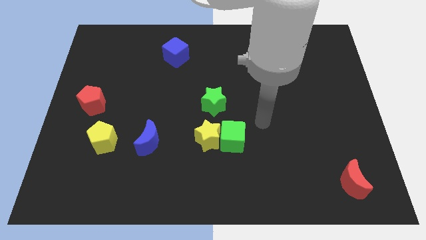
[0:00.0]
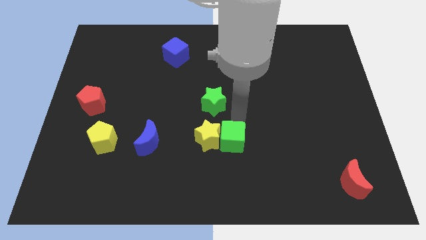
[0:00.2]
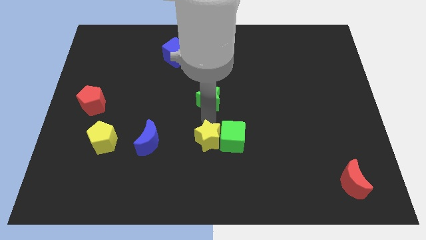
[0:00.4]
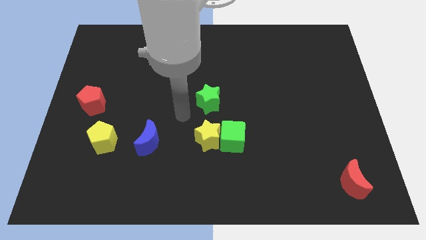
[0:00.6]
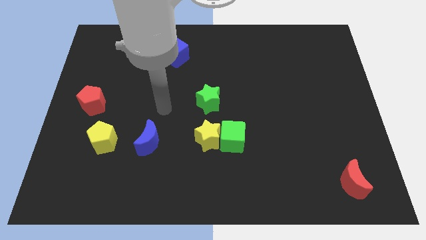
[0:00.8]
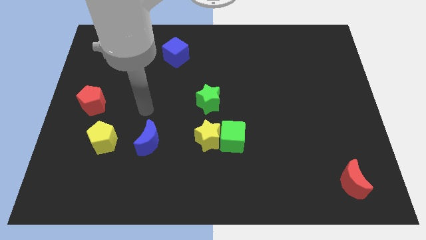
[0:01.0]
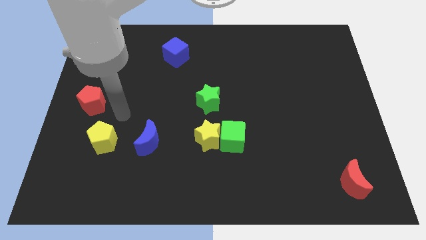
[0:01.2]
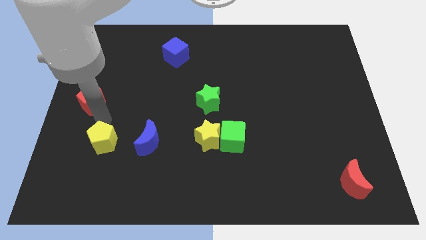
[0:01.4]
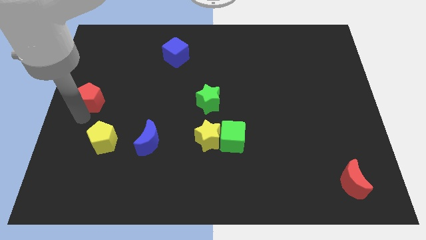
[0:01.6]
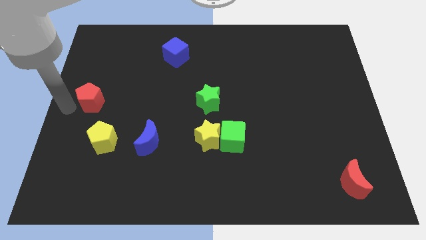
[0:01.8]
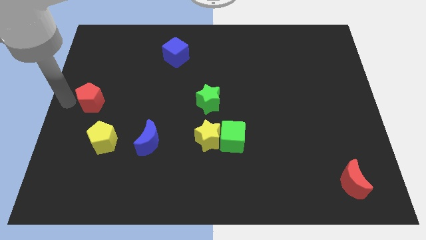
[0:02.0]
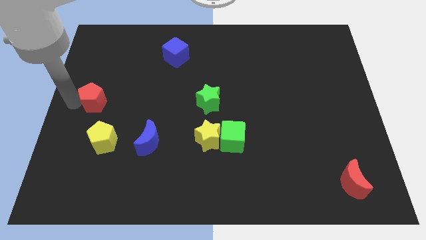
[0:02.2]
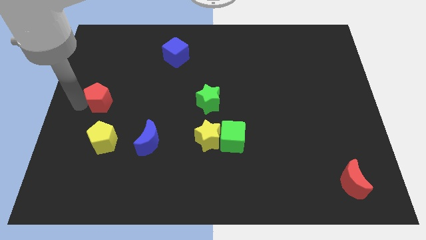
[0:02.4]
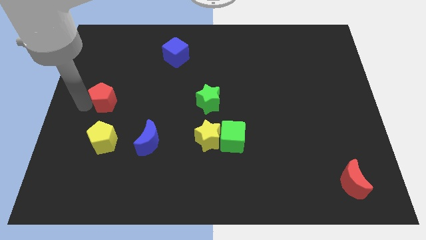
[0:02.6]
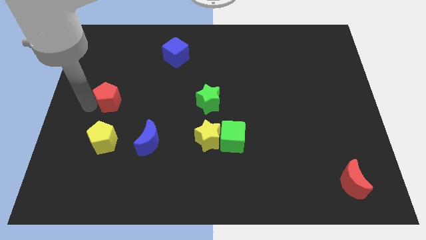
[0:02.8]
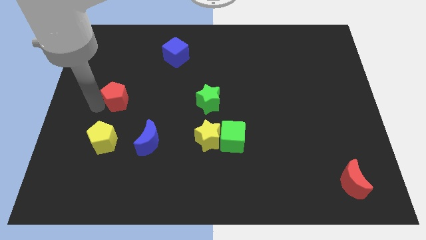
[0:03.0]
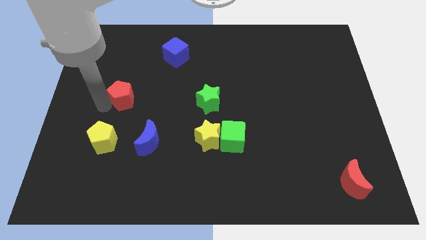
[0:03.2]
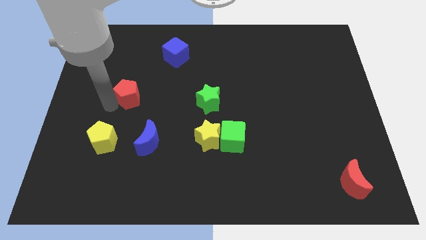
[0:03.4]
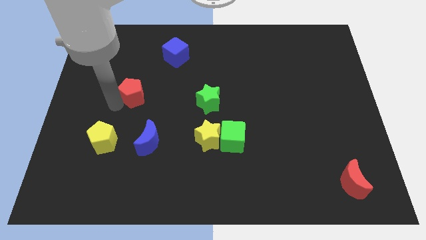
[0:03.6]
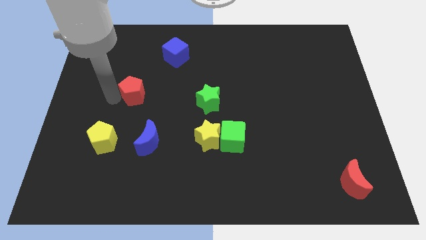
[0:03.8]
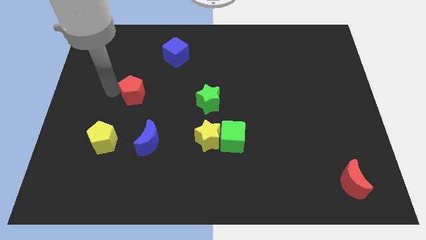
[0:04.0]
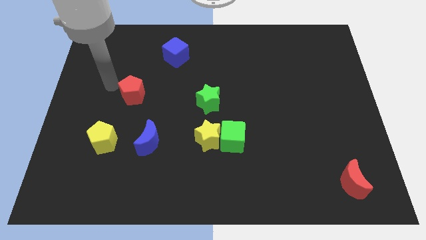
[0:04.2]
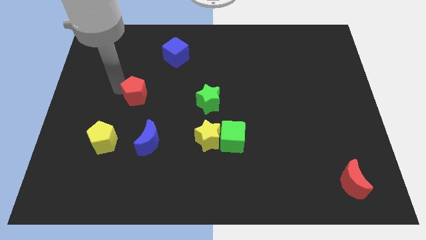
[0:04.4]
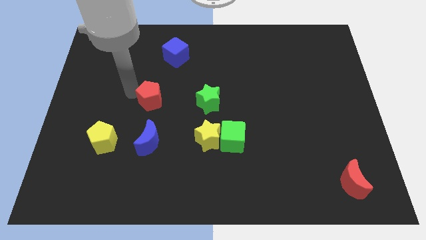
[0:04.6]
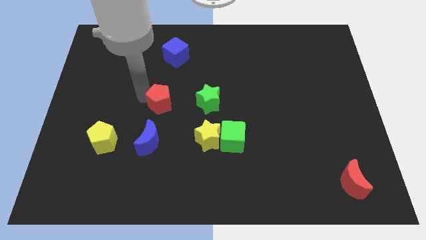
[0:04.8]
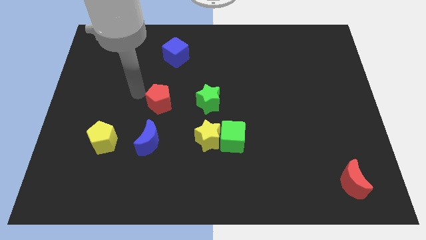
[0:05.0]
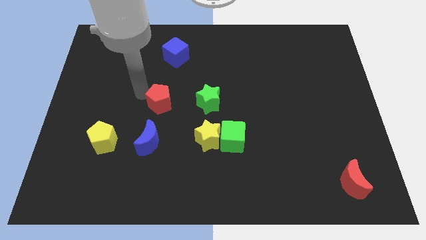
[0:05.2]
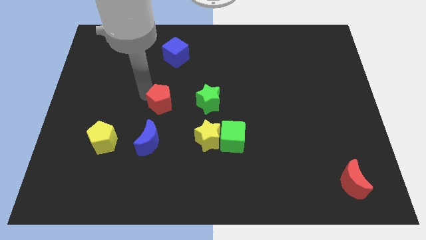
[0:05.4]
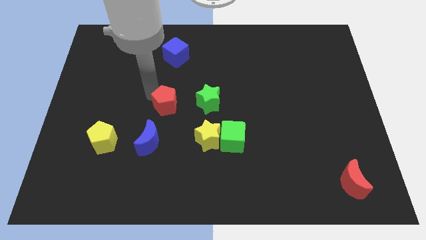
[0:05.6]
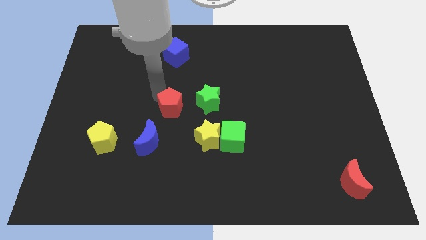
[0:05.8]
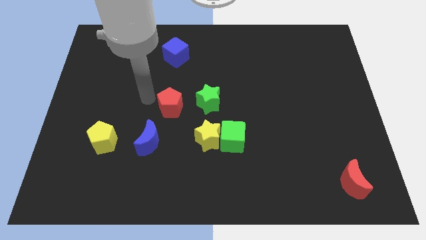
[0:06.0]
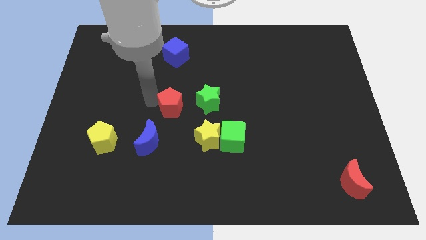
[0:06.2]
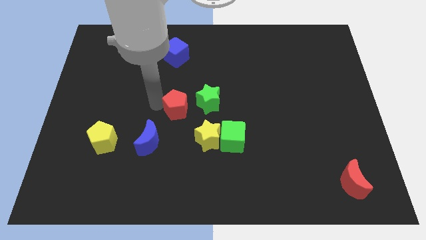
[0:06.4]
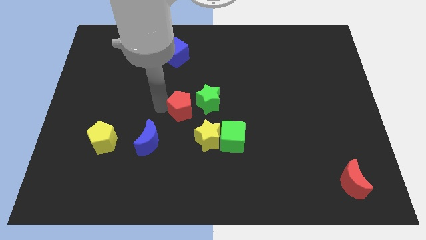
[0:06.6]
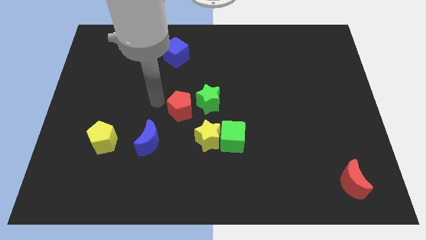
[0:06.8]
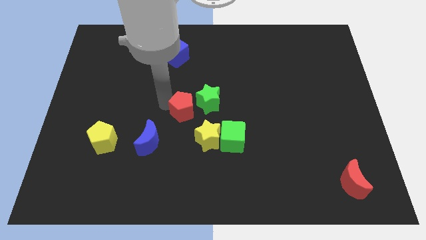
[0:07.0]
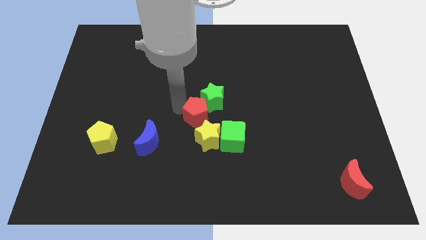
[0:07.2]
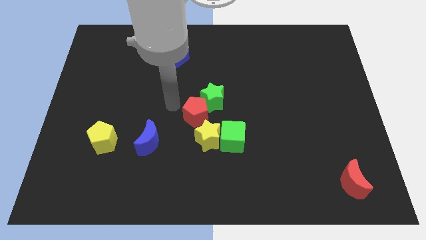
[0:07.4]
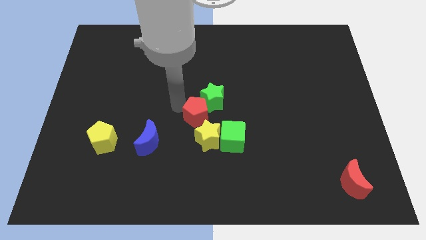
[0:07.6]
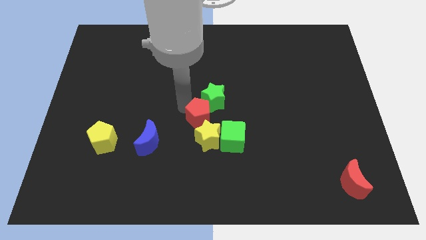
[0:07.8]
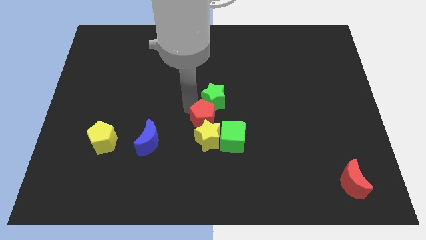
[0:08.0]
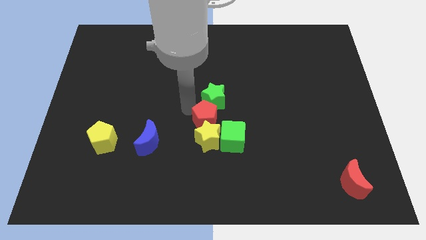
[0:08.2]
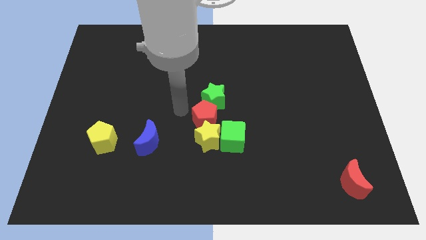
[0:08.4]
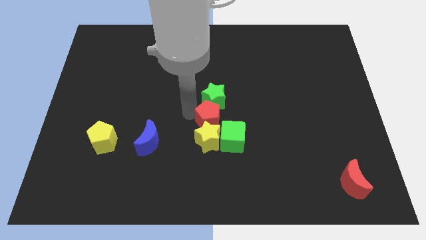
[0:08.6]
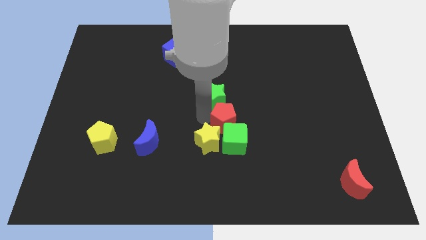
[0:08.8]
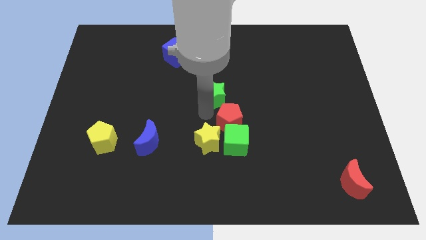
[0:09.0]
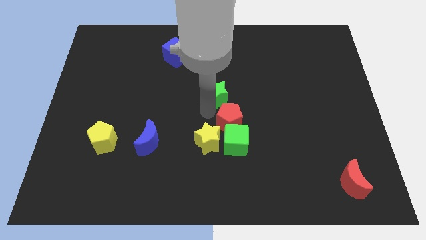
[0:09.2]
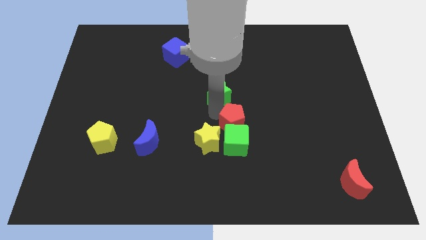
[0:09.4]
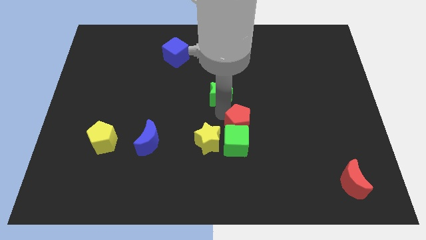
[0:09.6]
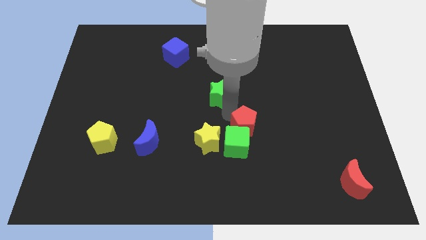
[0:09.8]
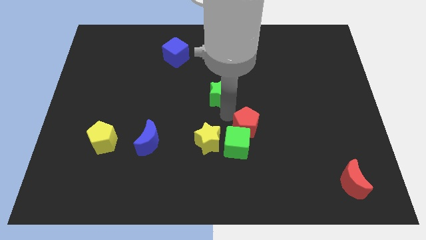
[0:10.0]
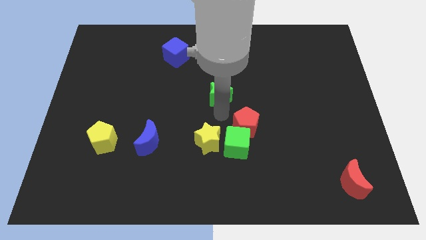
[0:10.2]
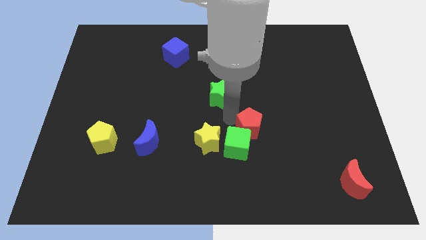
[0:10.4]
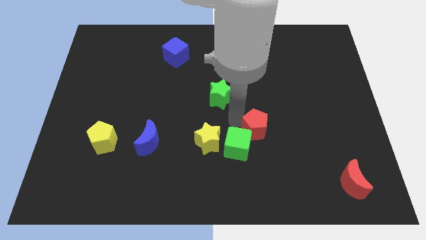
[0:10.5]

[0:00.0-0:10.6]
move the red pentagon just right of the green cube
